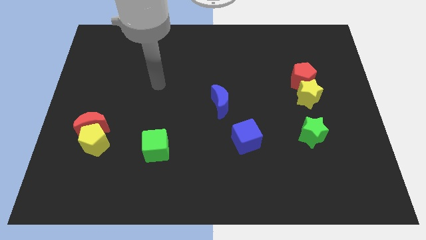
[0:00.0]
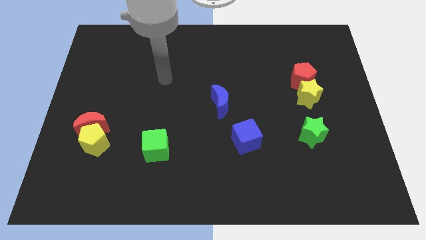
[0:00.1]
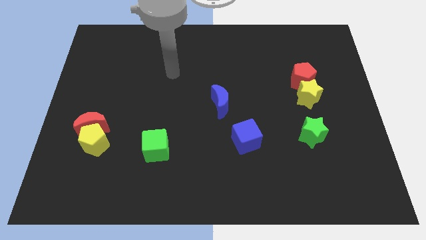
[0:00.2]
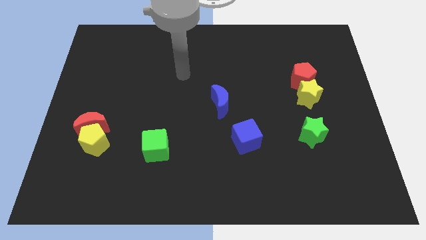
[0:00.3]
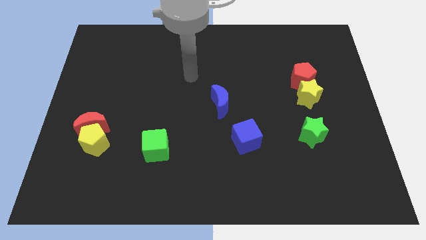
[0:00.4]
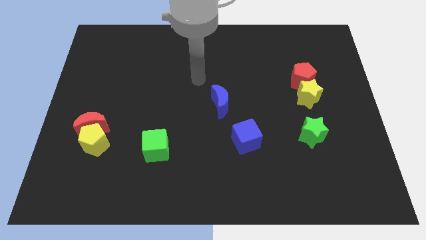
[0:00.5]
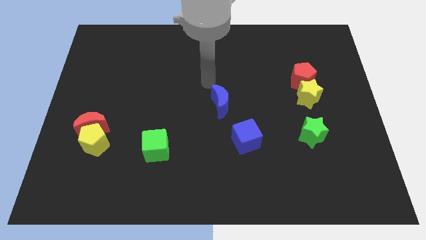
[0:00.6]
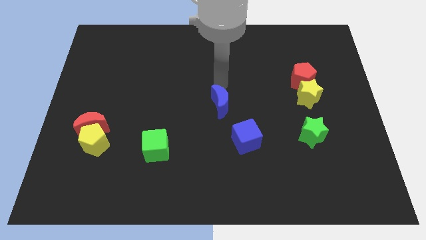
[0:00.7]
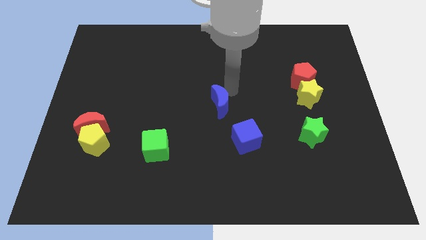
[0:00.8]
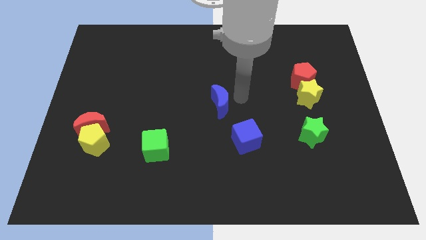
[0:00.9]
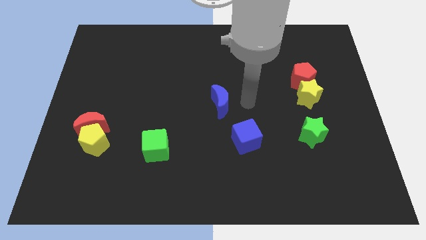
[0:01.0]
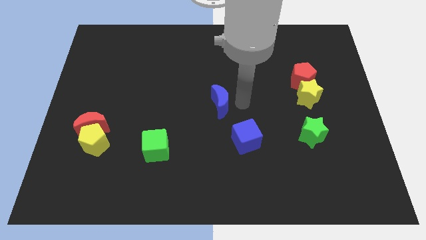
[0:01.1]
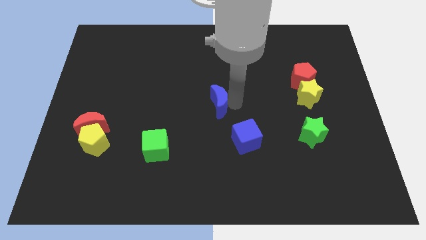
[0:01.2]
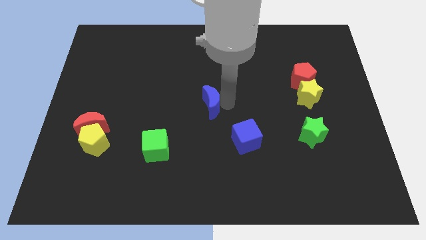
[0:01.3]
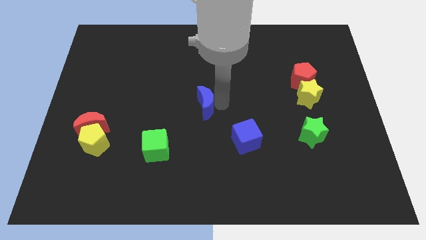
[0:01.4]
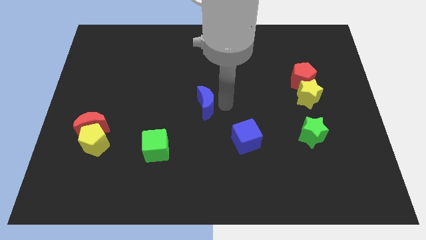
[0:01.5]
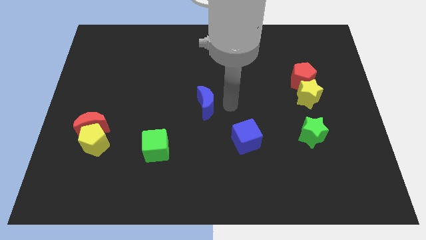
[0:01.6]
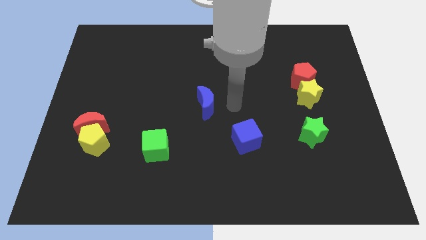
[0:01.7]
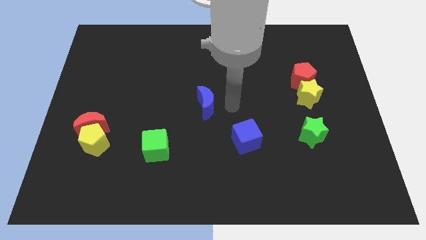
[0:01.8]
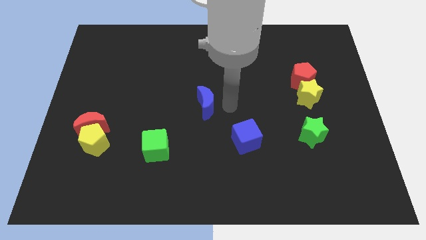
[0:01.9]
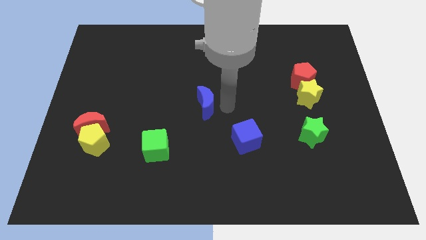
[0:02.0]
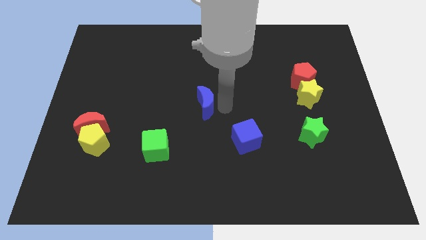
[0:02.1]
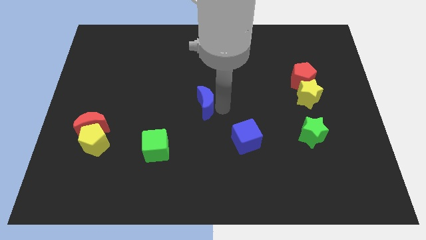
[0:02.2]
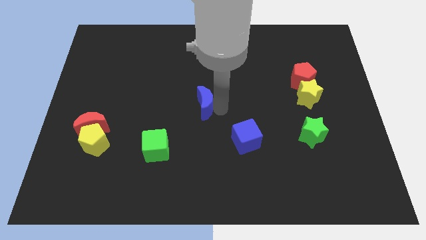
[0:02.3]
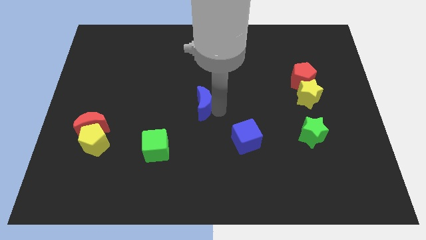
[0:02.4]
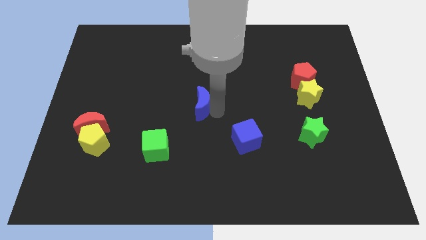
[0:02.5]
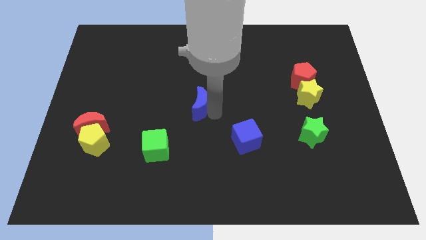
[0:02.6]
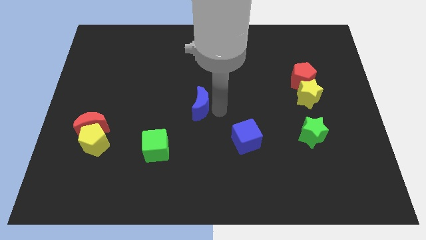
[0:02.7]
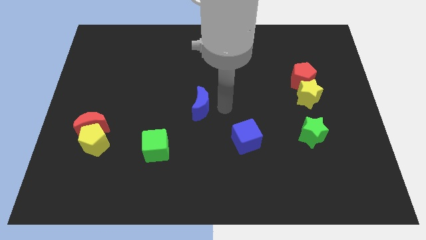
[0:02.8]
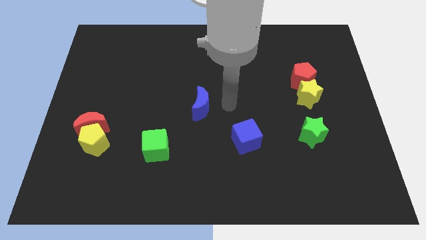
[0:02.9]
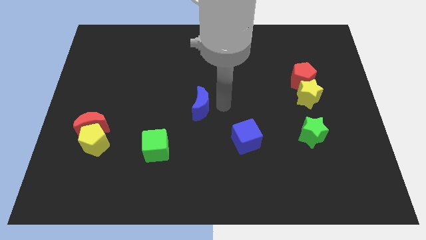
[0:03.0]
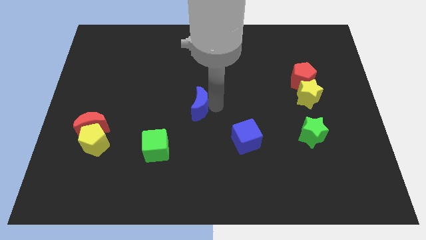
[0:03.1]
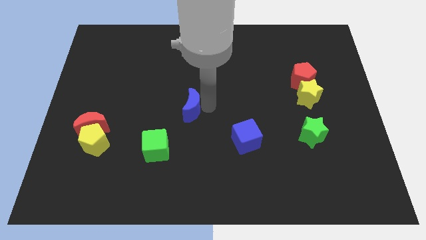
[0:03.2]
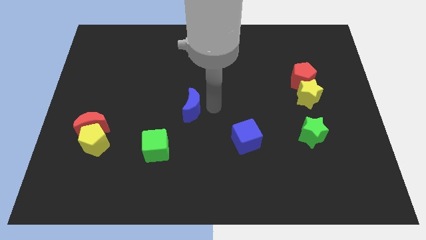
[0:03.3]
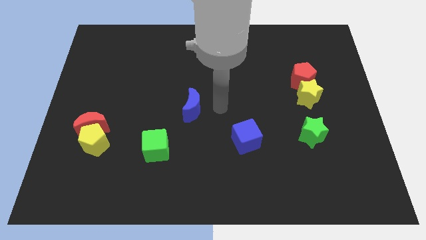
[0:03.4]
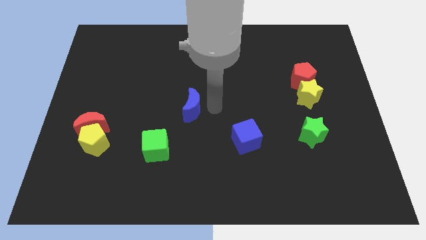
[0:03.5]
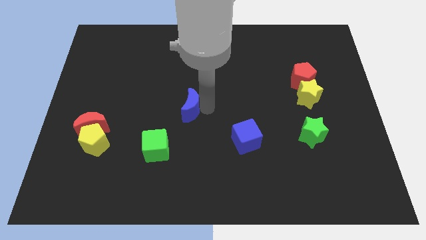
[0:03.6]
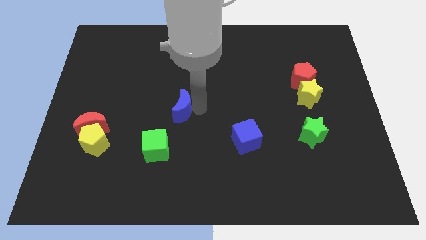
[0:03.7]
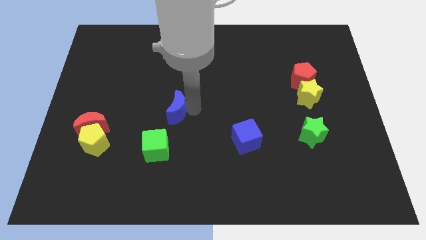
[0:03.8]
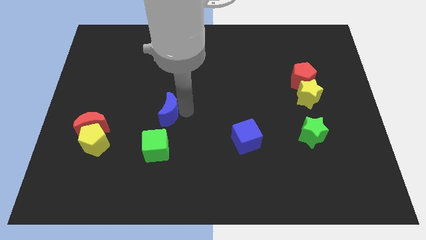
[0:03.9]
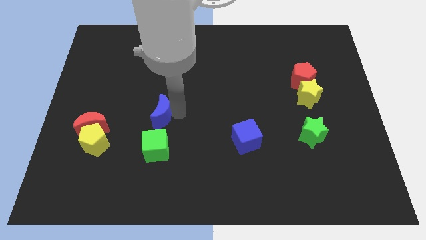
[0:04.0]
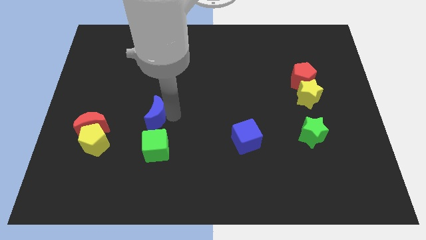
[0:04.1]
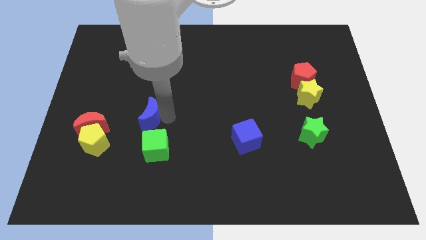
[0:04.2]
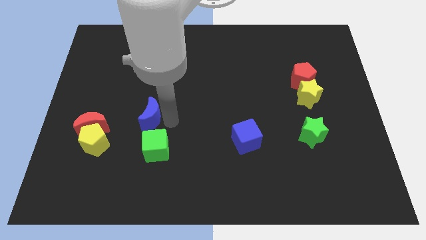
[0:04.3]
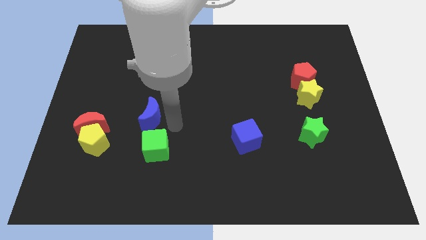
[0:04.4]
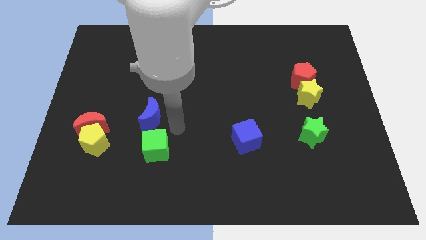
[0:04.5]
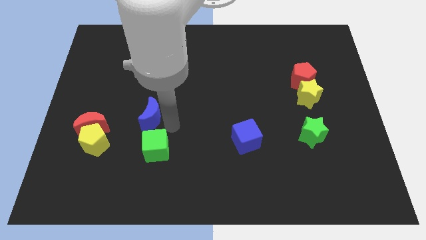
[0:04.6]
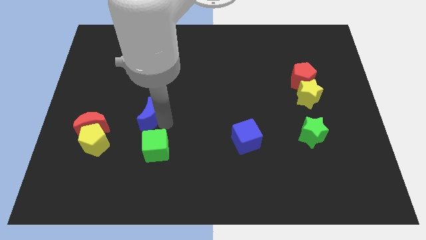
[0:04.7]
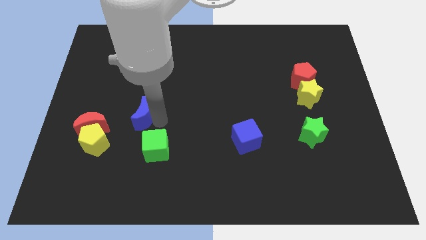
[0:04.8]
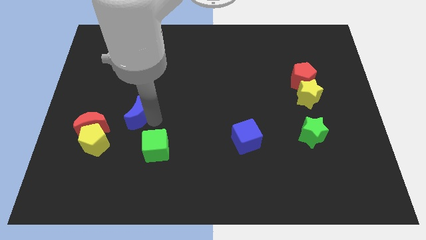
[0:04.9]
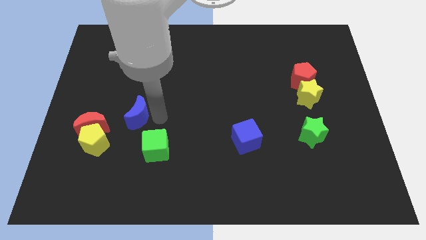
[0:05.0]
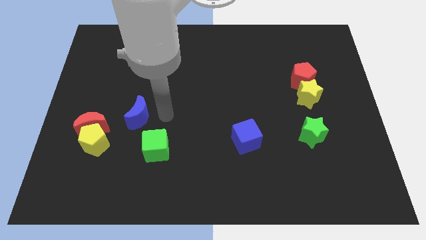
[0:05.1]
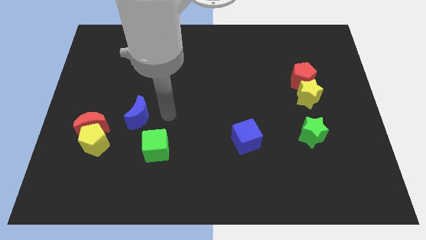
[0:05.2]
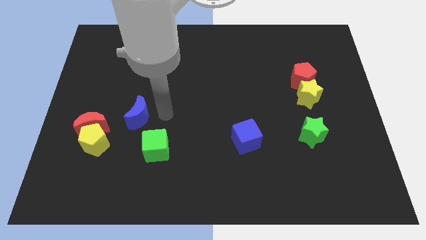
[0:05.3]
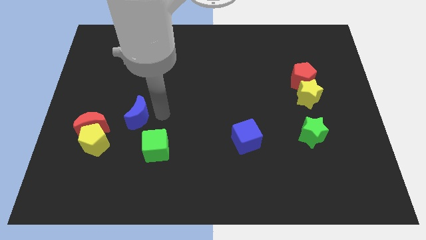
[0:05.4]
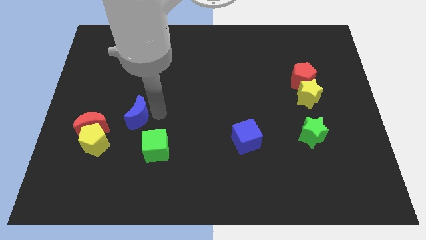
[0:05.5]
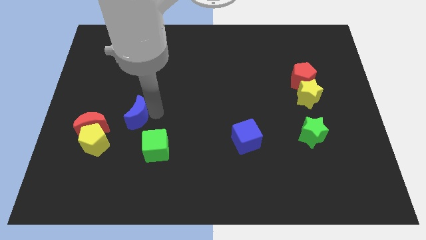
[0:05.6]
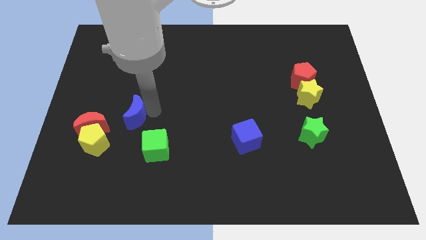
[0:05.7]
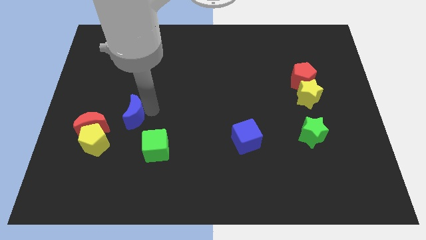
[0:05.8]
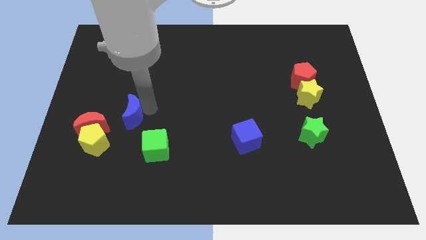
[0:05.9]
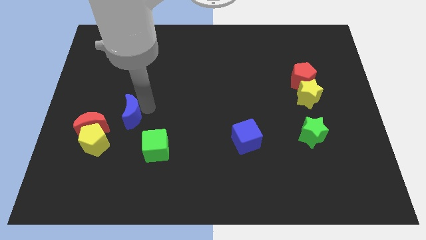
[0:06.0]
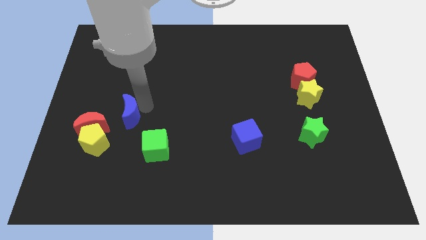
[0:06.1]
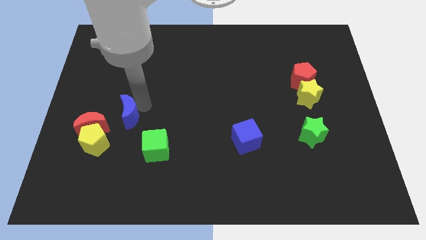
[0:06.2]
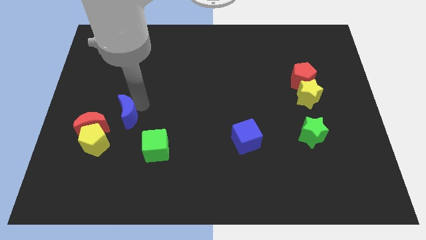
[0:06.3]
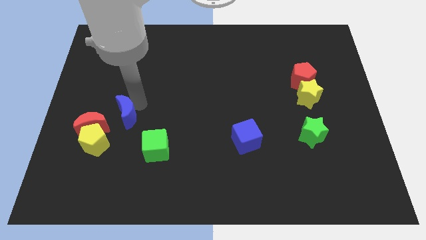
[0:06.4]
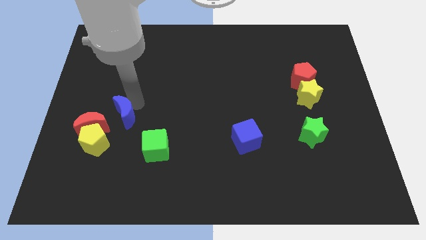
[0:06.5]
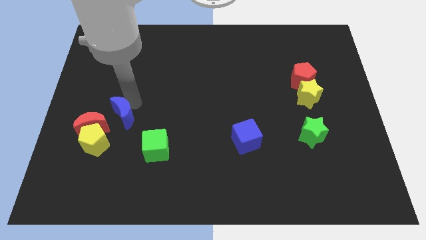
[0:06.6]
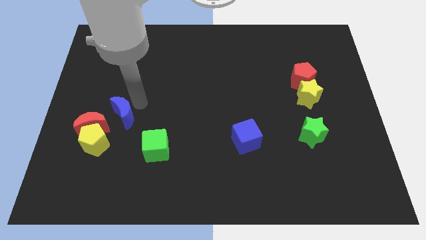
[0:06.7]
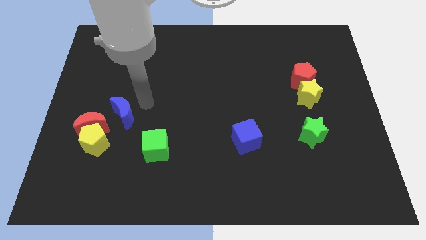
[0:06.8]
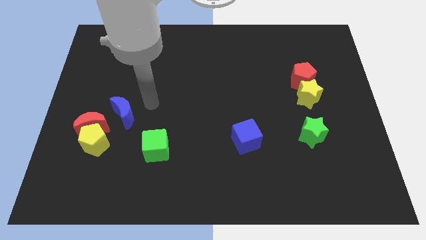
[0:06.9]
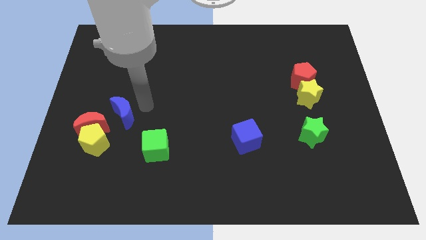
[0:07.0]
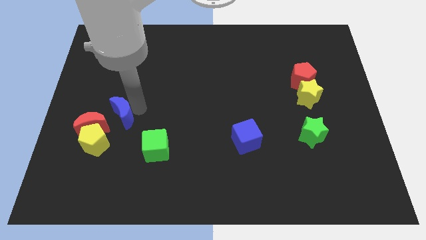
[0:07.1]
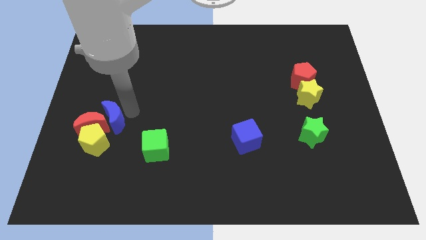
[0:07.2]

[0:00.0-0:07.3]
push the blue moon close to the red moon
